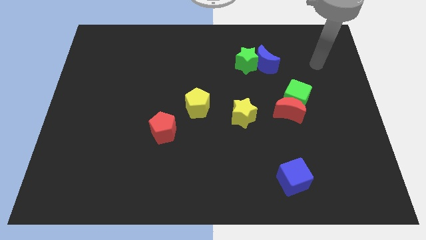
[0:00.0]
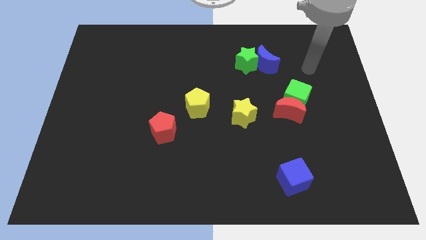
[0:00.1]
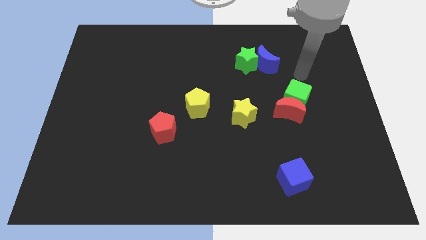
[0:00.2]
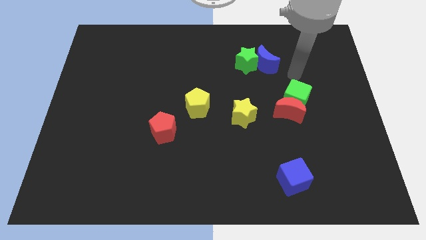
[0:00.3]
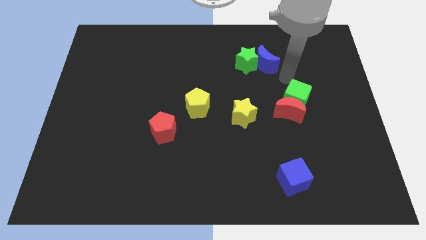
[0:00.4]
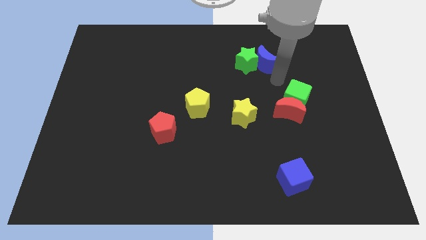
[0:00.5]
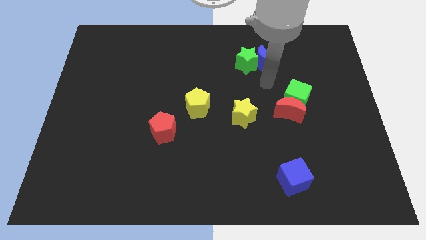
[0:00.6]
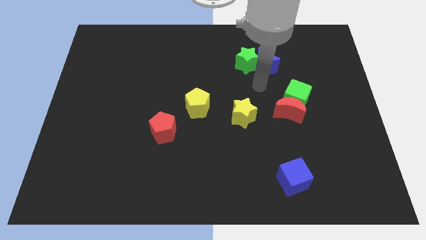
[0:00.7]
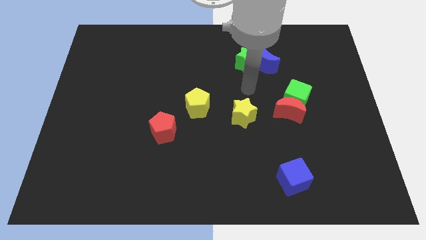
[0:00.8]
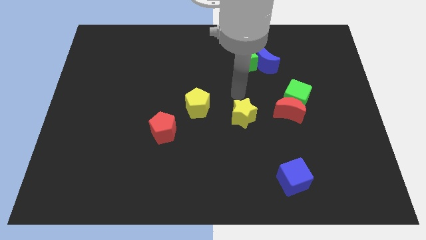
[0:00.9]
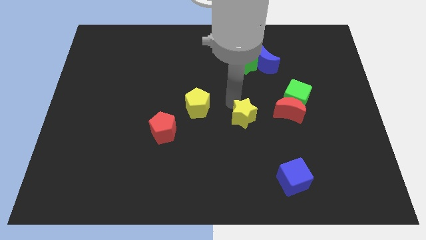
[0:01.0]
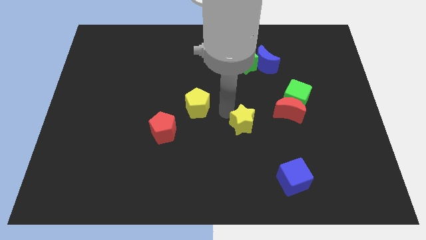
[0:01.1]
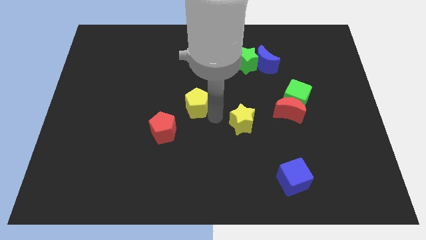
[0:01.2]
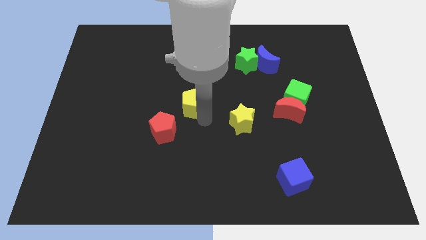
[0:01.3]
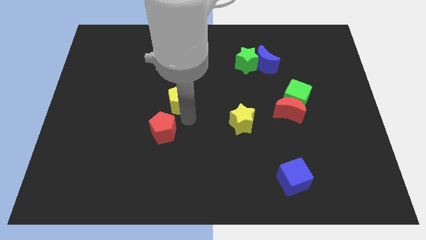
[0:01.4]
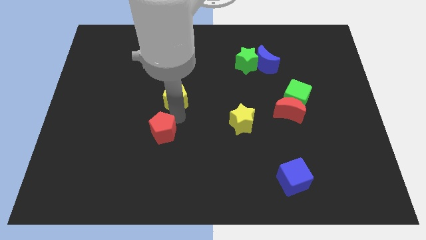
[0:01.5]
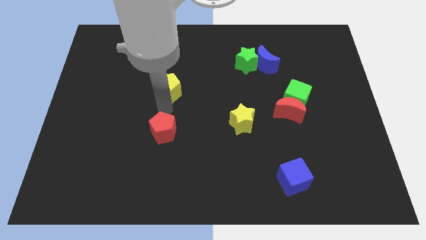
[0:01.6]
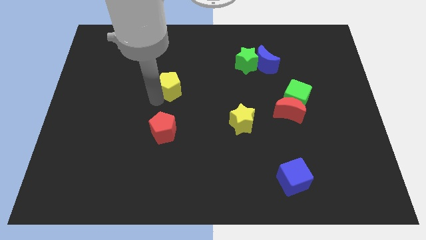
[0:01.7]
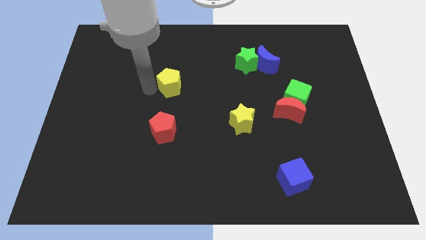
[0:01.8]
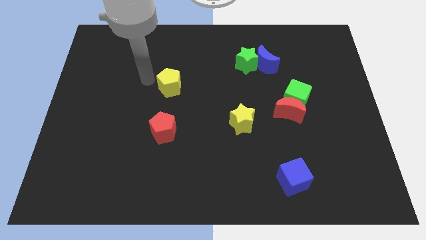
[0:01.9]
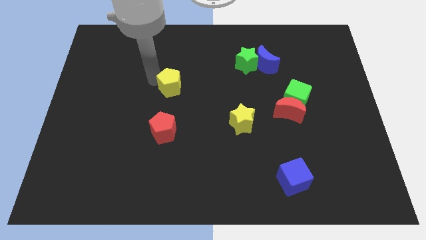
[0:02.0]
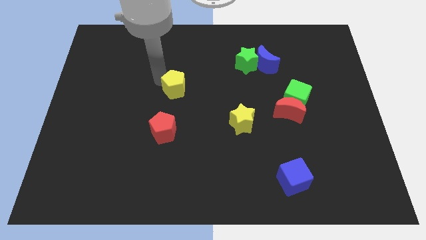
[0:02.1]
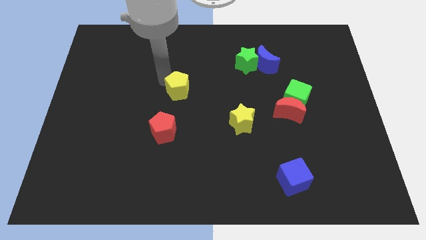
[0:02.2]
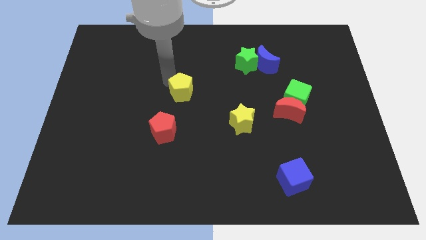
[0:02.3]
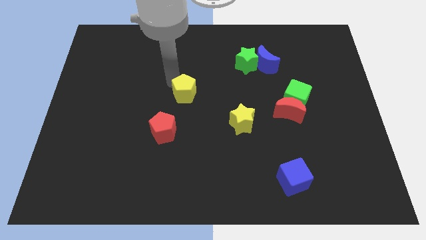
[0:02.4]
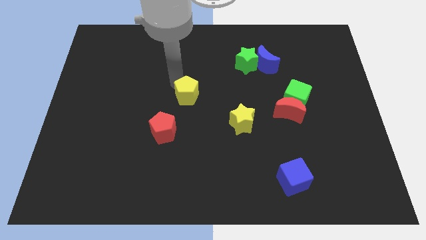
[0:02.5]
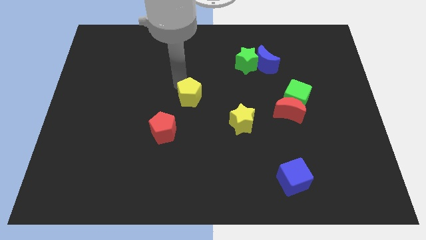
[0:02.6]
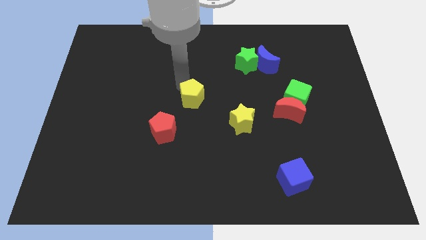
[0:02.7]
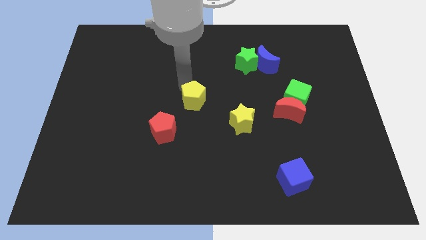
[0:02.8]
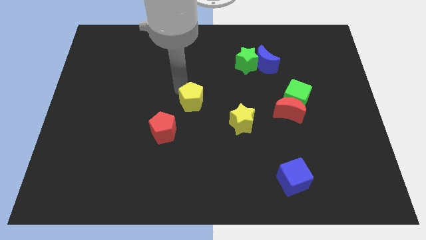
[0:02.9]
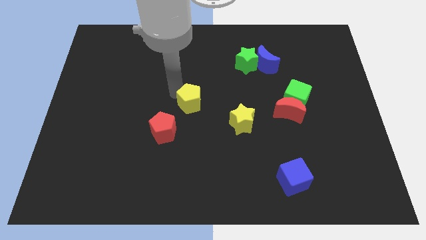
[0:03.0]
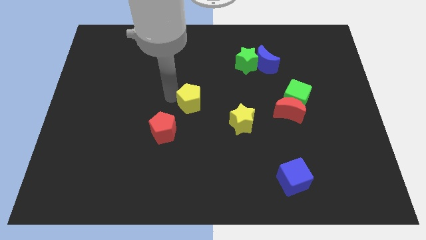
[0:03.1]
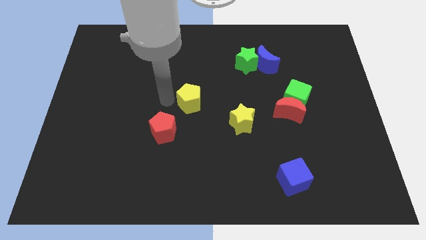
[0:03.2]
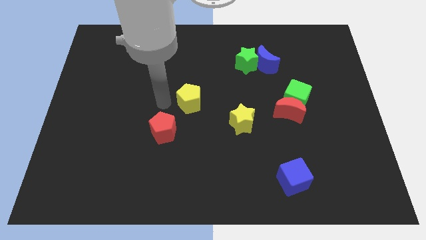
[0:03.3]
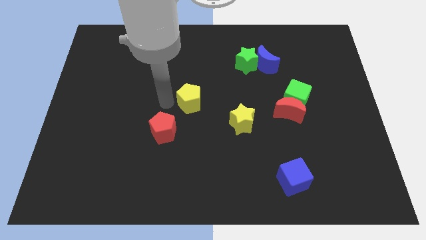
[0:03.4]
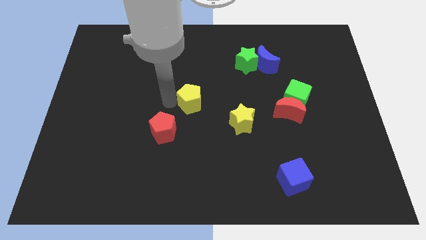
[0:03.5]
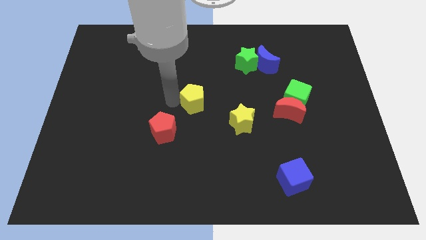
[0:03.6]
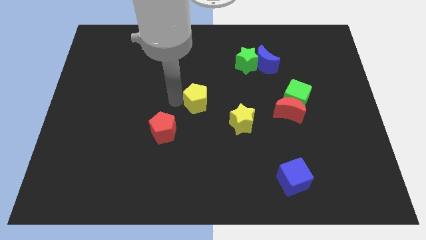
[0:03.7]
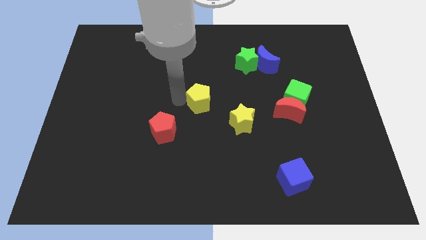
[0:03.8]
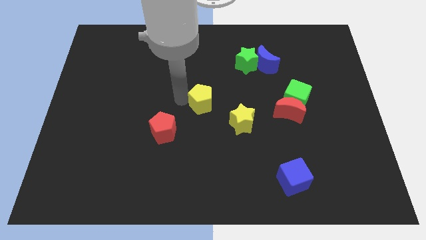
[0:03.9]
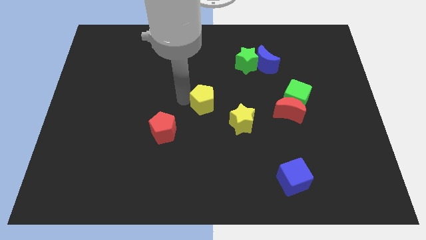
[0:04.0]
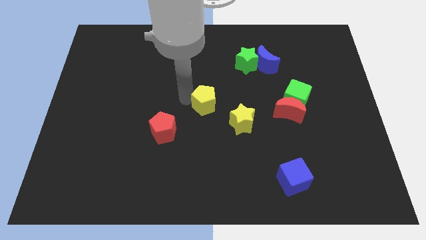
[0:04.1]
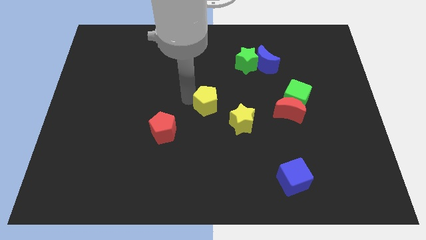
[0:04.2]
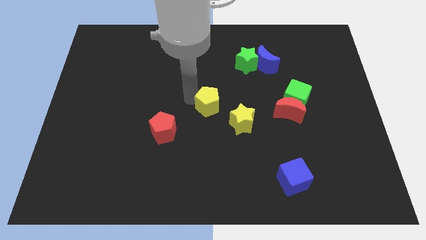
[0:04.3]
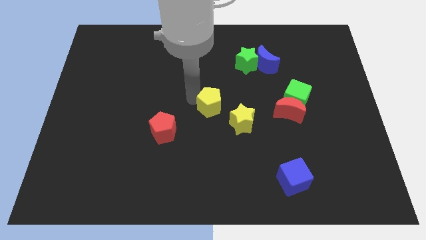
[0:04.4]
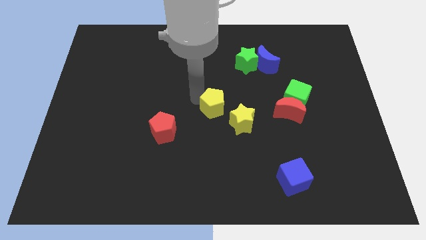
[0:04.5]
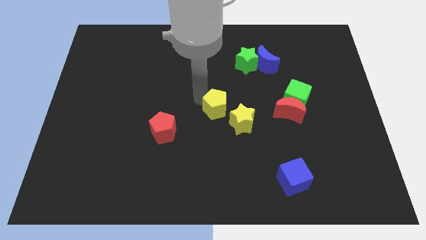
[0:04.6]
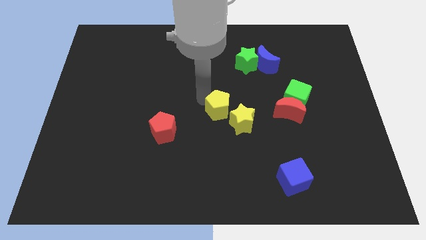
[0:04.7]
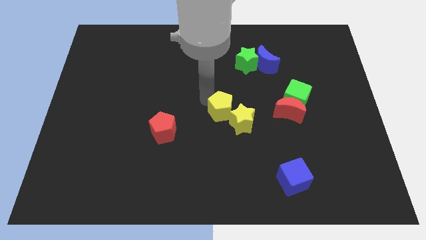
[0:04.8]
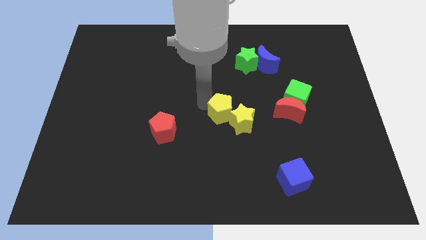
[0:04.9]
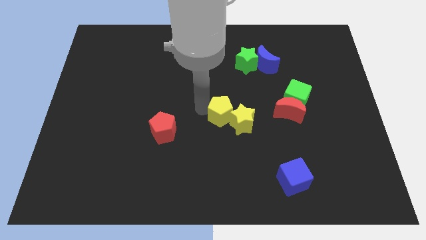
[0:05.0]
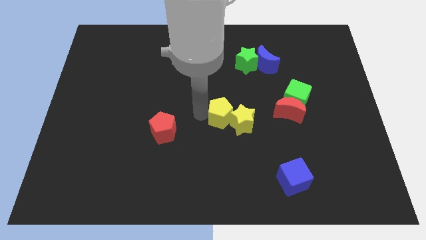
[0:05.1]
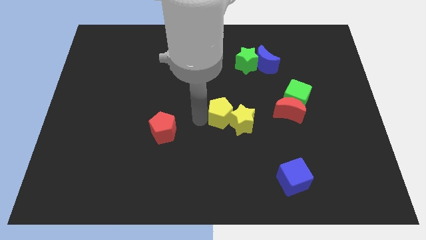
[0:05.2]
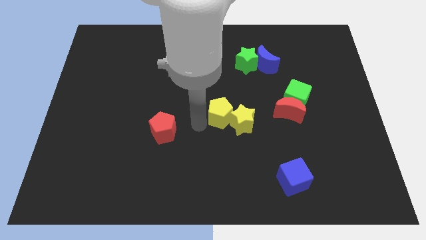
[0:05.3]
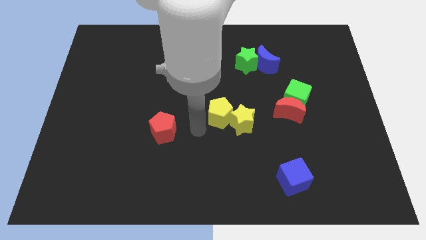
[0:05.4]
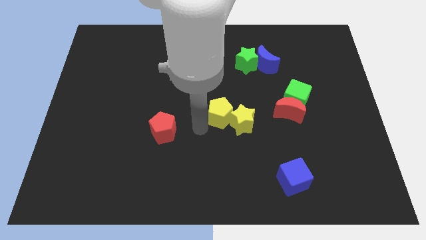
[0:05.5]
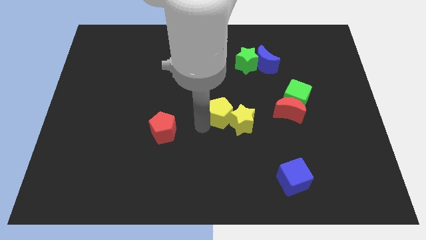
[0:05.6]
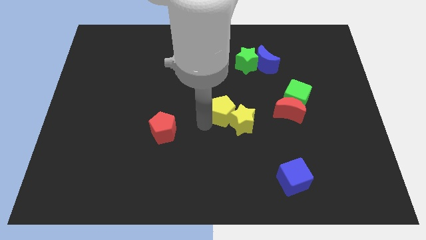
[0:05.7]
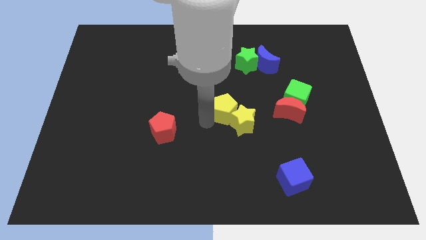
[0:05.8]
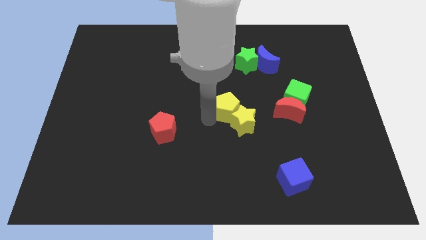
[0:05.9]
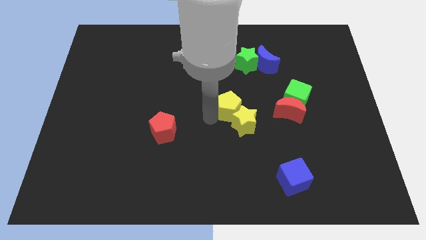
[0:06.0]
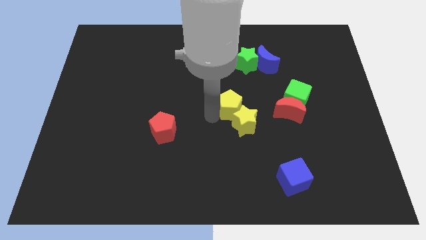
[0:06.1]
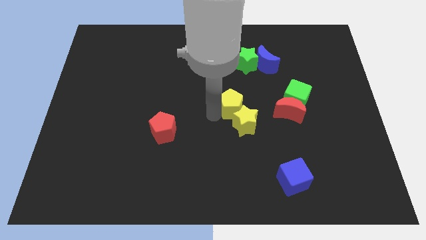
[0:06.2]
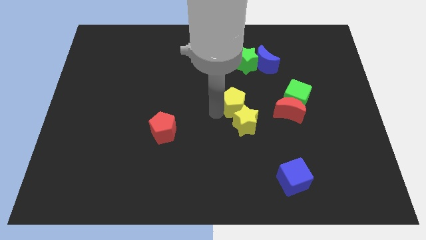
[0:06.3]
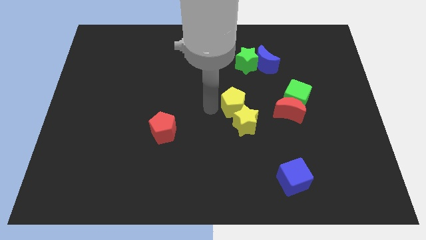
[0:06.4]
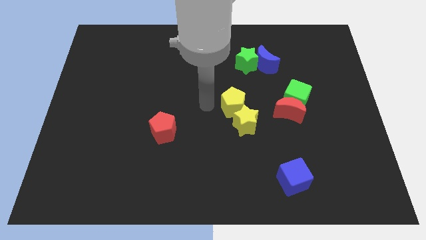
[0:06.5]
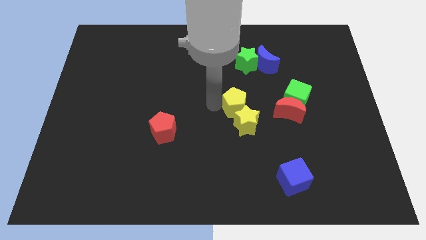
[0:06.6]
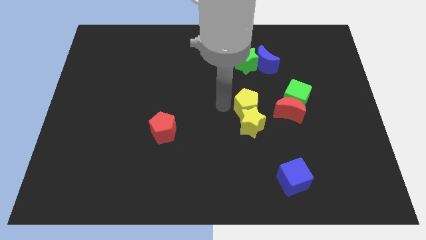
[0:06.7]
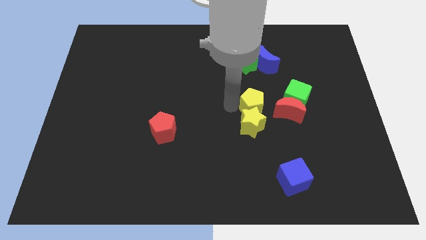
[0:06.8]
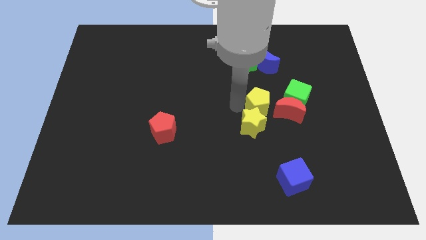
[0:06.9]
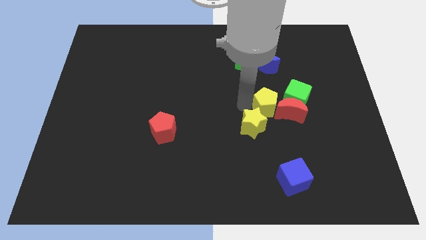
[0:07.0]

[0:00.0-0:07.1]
put the yellow pentagon close to the red moon
